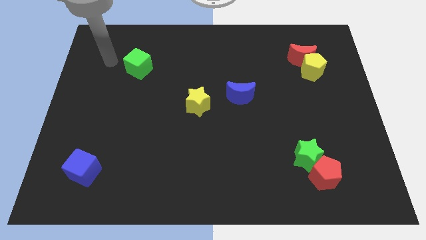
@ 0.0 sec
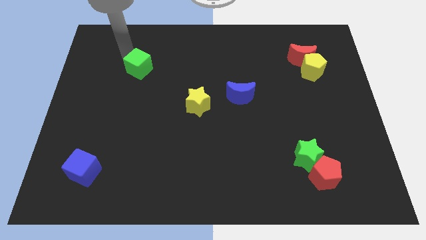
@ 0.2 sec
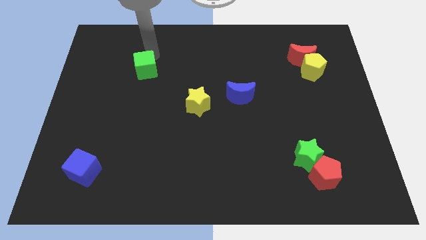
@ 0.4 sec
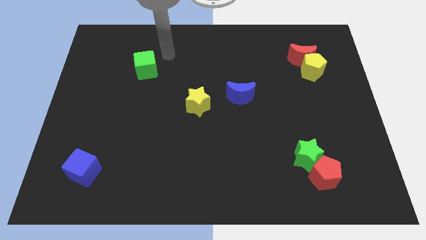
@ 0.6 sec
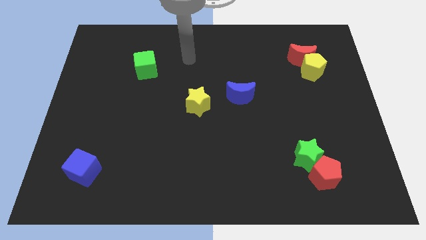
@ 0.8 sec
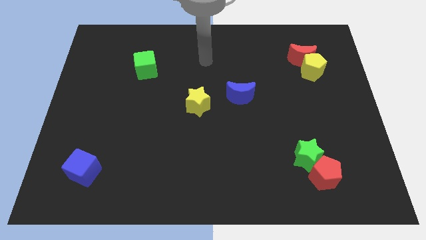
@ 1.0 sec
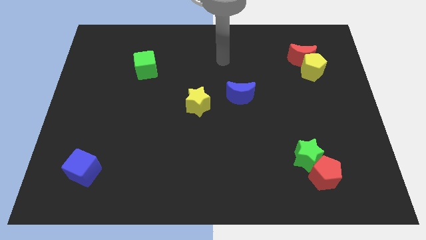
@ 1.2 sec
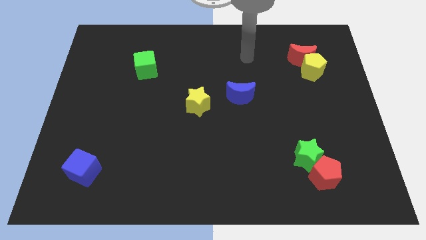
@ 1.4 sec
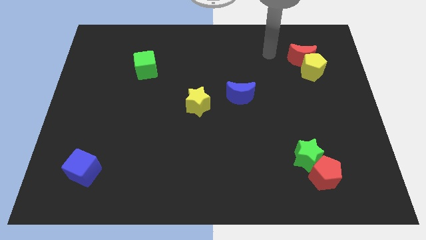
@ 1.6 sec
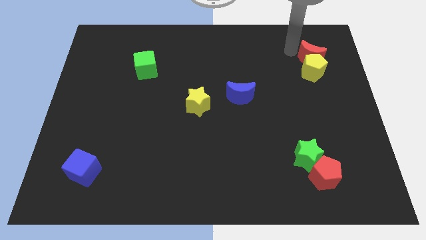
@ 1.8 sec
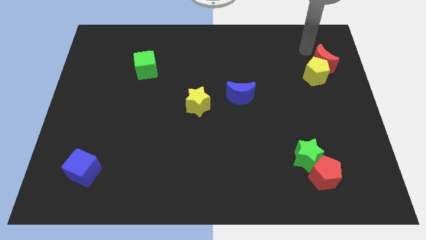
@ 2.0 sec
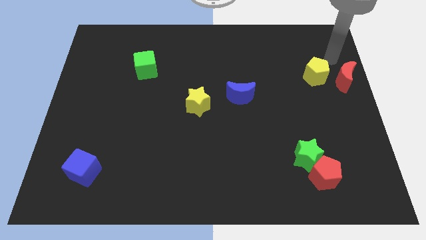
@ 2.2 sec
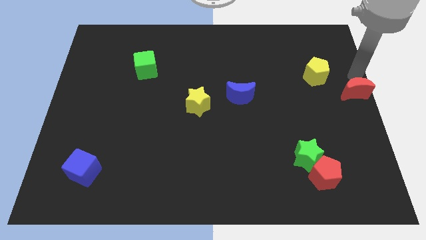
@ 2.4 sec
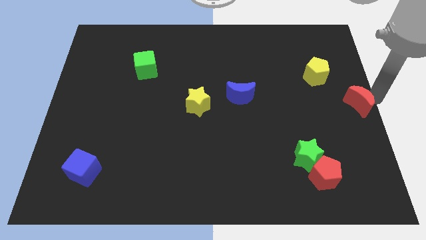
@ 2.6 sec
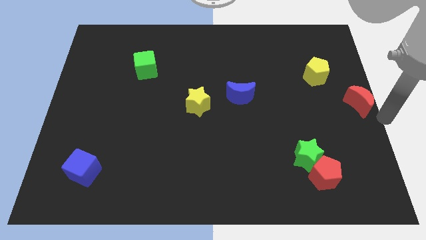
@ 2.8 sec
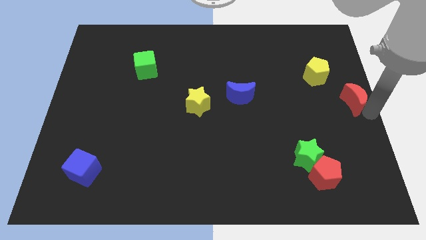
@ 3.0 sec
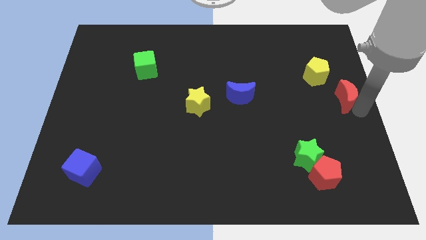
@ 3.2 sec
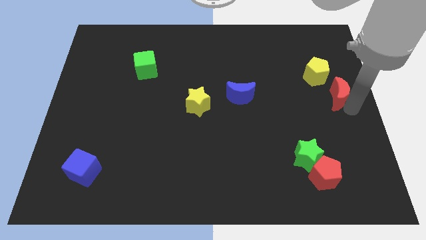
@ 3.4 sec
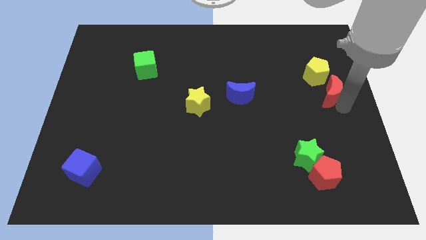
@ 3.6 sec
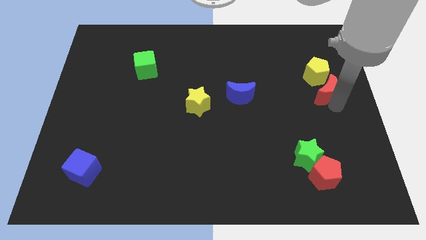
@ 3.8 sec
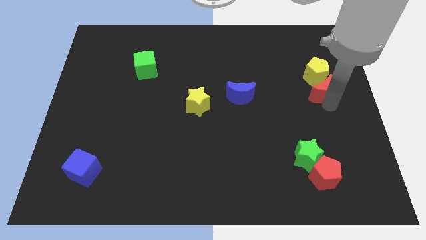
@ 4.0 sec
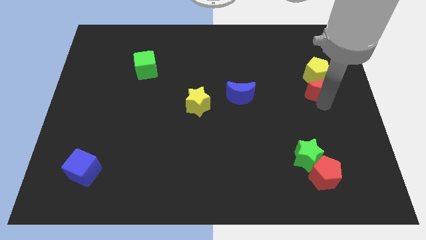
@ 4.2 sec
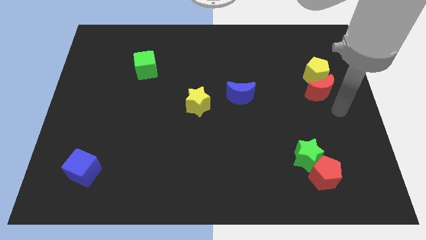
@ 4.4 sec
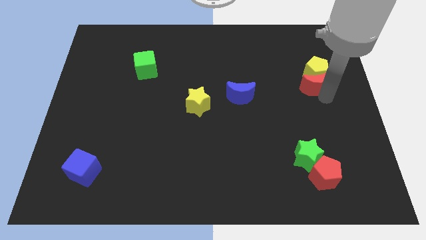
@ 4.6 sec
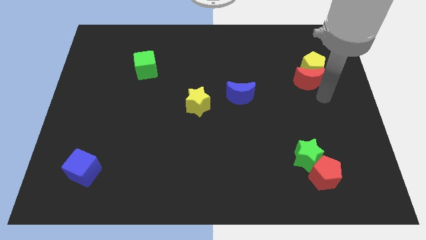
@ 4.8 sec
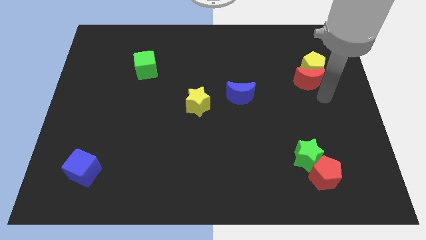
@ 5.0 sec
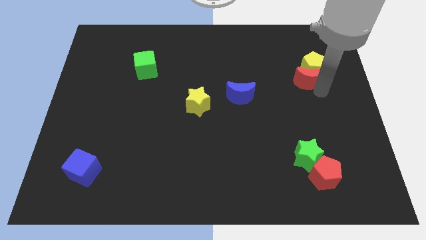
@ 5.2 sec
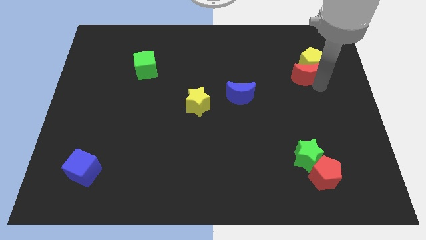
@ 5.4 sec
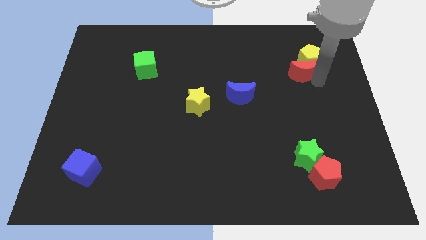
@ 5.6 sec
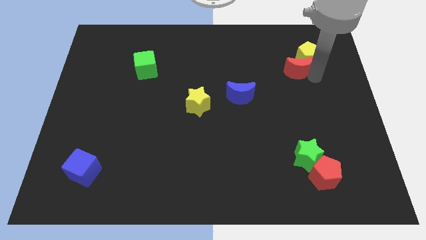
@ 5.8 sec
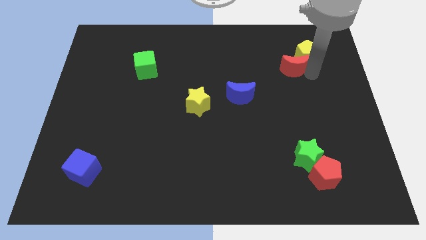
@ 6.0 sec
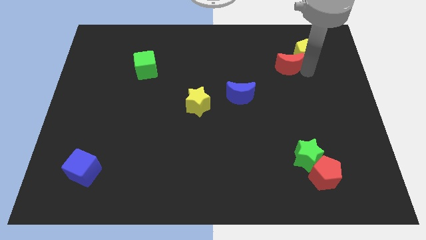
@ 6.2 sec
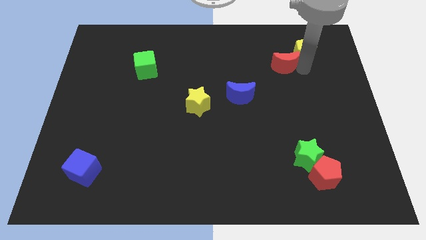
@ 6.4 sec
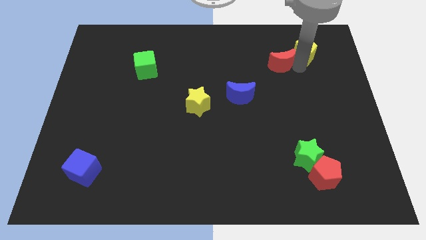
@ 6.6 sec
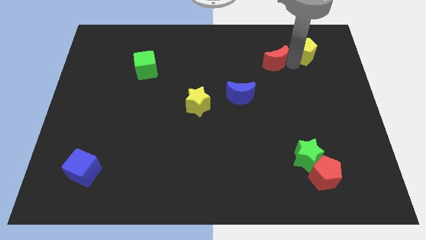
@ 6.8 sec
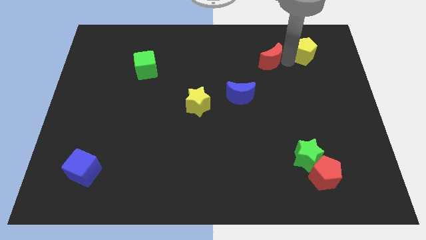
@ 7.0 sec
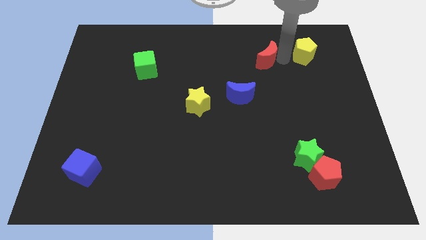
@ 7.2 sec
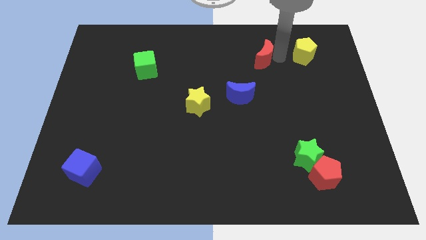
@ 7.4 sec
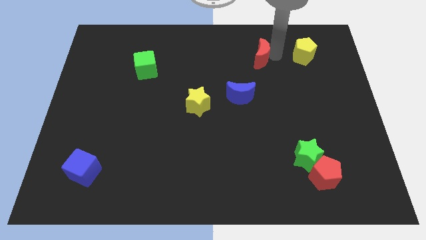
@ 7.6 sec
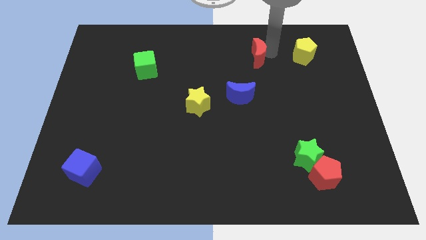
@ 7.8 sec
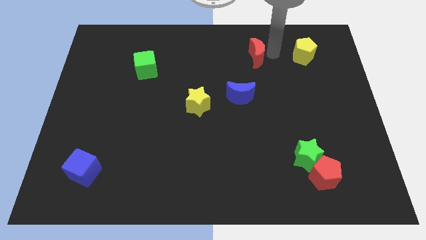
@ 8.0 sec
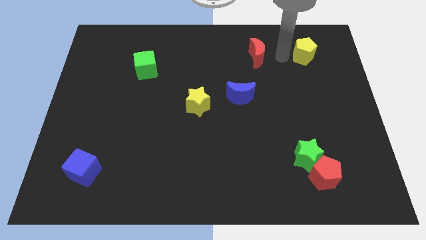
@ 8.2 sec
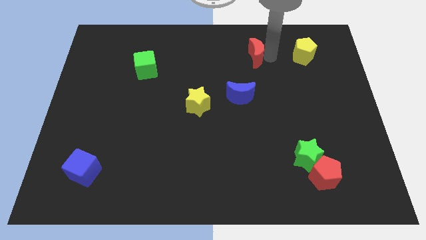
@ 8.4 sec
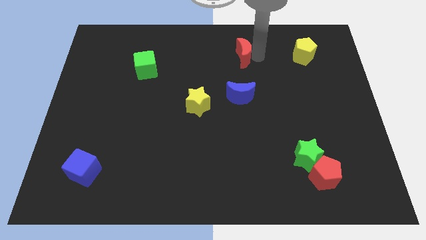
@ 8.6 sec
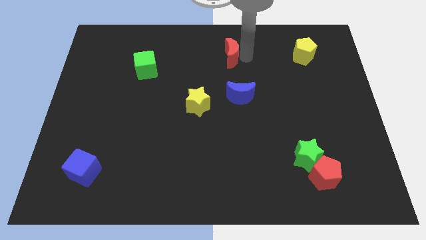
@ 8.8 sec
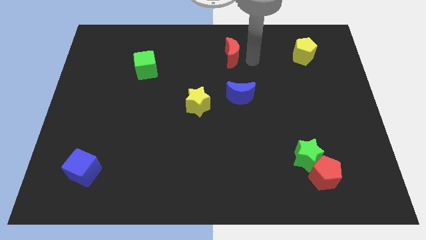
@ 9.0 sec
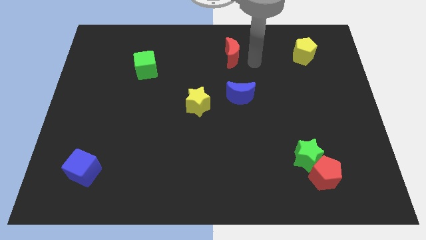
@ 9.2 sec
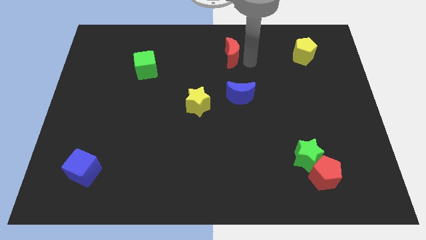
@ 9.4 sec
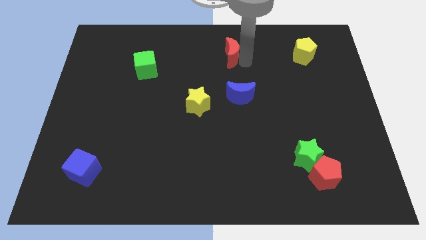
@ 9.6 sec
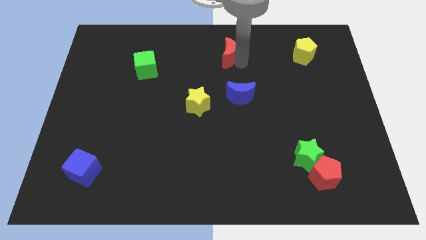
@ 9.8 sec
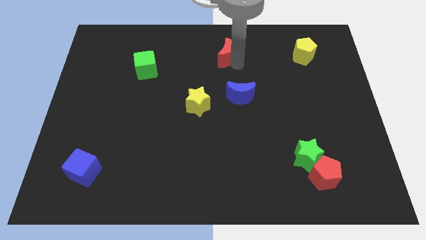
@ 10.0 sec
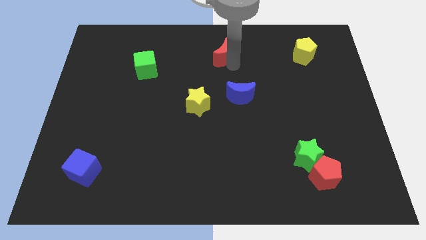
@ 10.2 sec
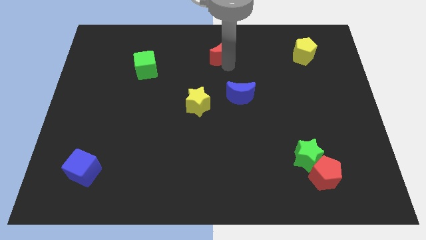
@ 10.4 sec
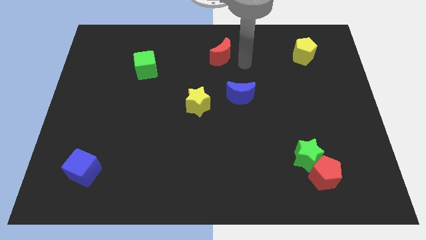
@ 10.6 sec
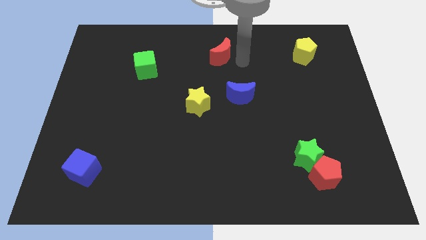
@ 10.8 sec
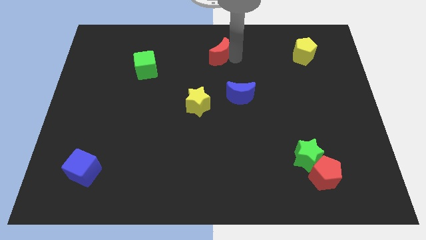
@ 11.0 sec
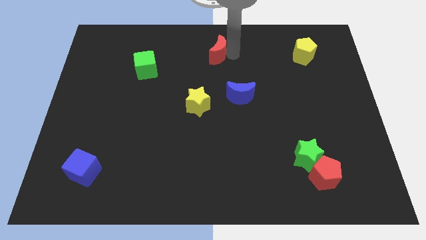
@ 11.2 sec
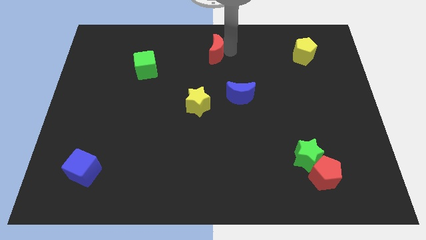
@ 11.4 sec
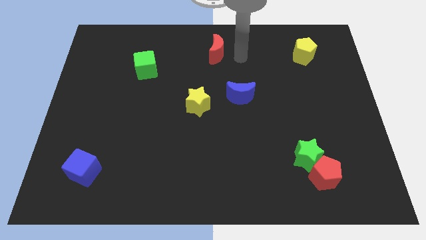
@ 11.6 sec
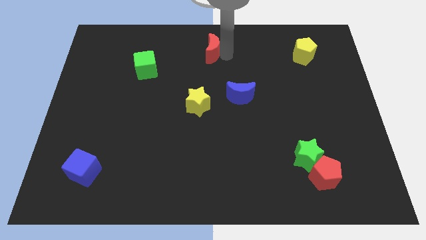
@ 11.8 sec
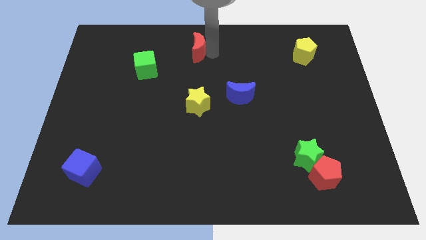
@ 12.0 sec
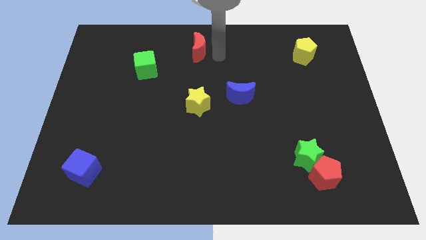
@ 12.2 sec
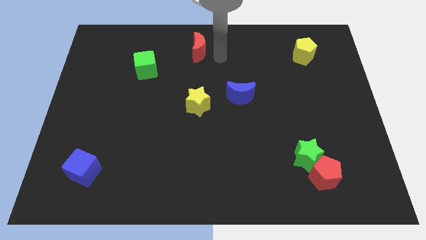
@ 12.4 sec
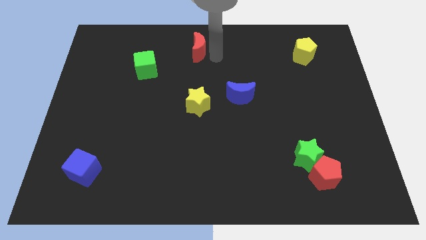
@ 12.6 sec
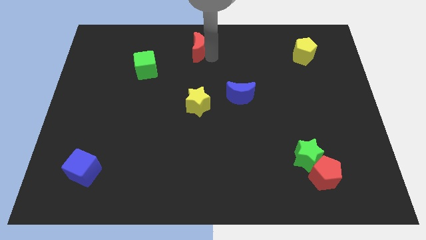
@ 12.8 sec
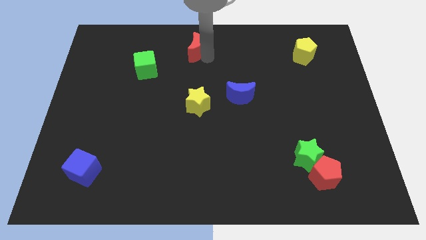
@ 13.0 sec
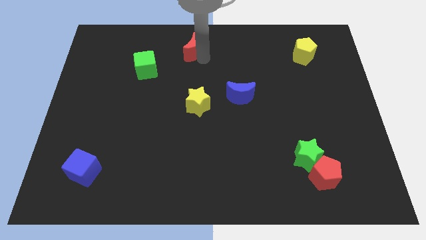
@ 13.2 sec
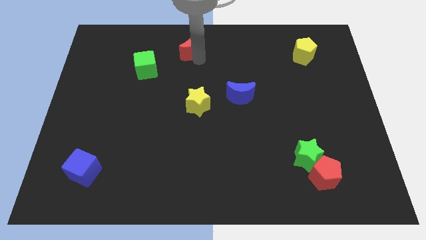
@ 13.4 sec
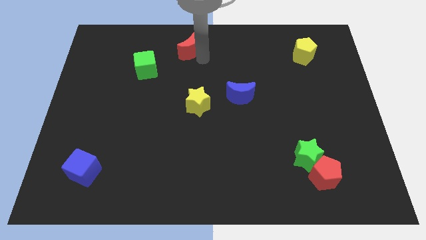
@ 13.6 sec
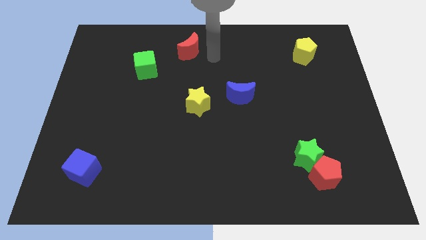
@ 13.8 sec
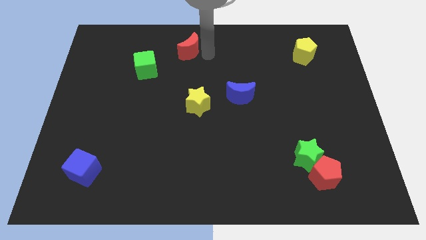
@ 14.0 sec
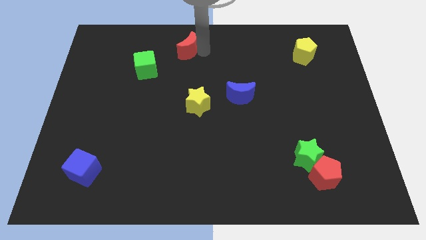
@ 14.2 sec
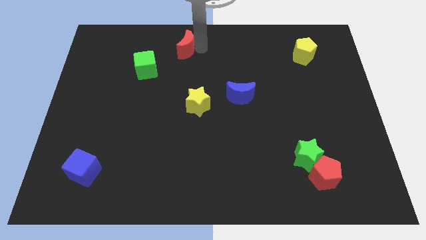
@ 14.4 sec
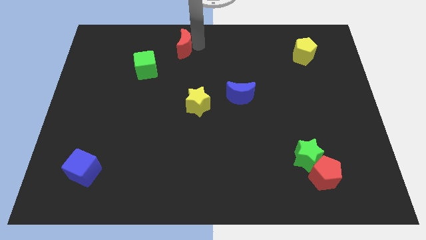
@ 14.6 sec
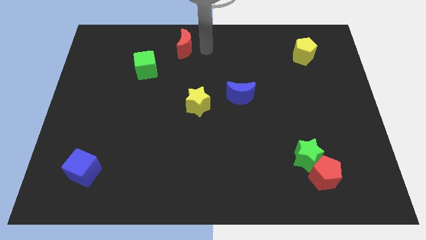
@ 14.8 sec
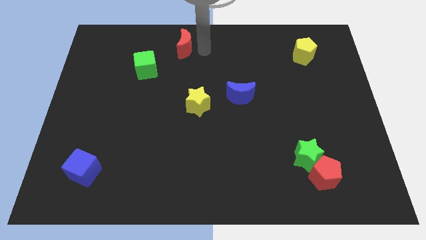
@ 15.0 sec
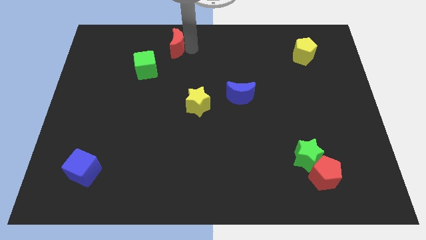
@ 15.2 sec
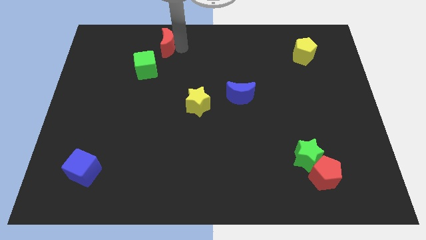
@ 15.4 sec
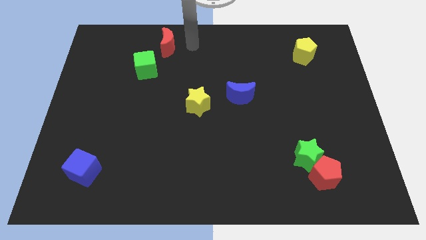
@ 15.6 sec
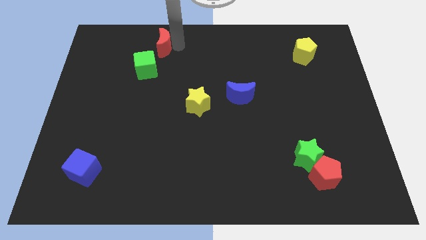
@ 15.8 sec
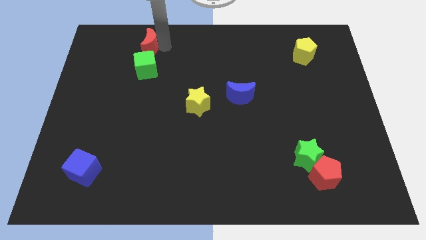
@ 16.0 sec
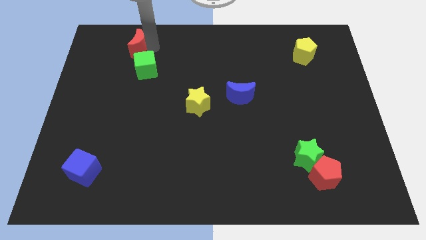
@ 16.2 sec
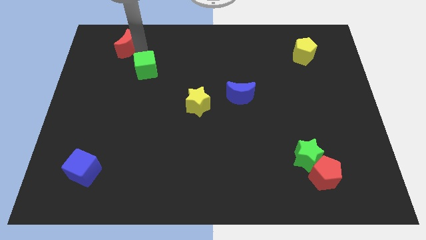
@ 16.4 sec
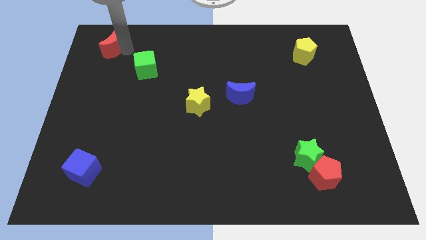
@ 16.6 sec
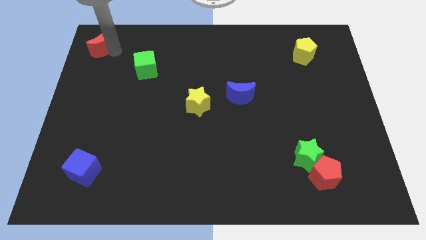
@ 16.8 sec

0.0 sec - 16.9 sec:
move the red moon to the upper left corner
